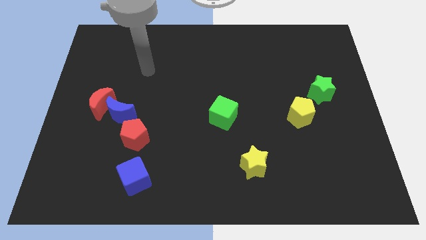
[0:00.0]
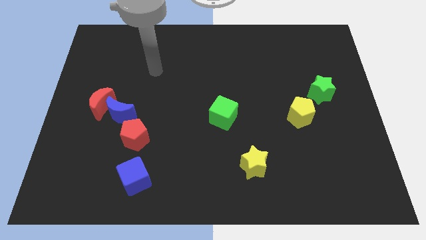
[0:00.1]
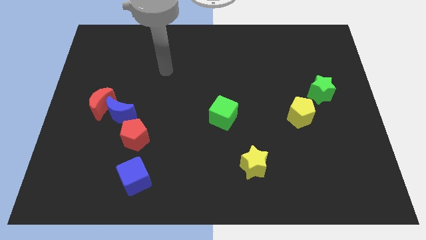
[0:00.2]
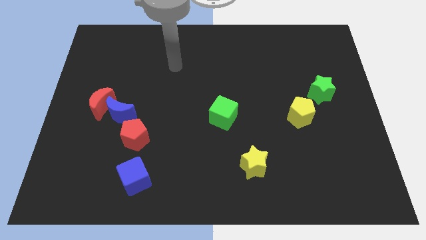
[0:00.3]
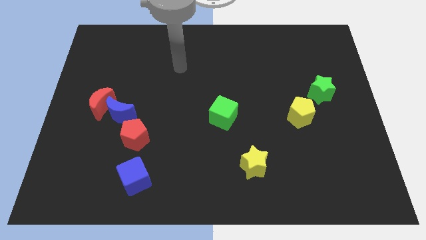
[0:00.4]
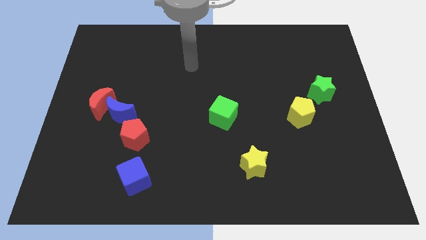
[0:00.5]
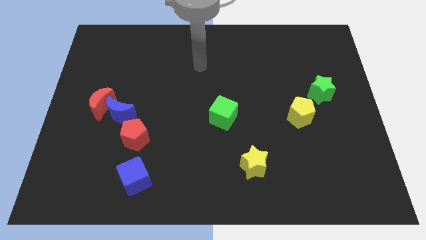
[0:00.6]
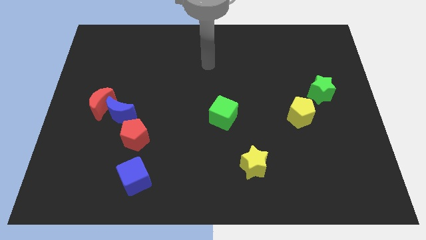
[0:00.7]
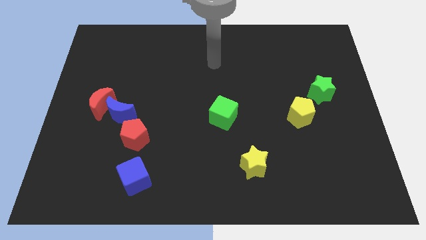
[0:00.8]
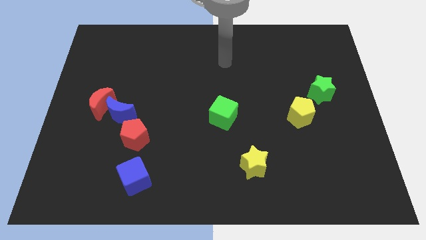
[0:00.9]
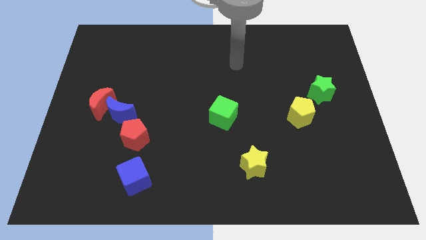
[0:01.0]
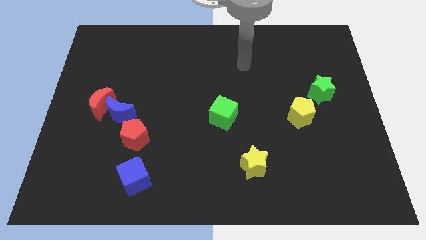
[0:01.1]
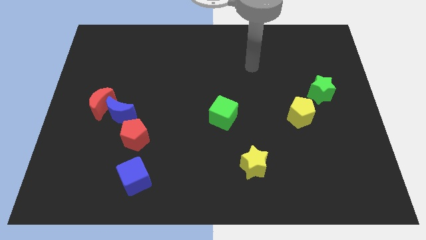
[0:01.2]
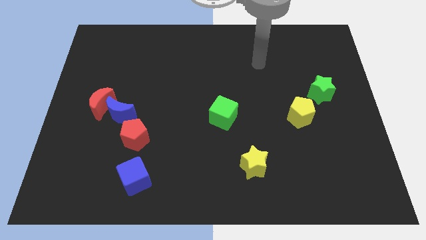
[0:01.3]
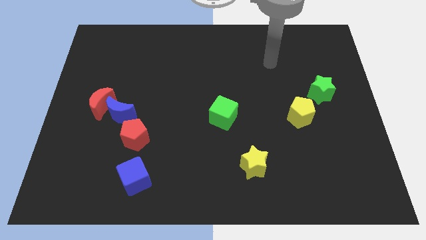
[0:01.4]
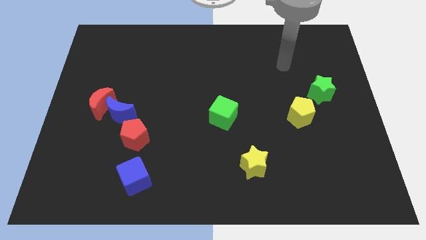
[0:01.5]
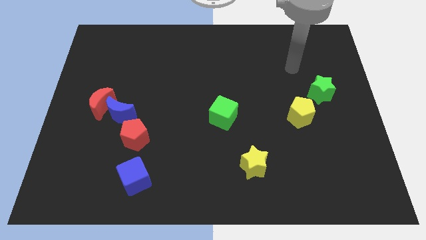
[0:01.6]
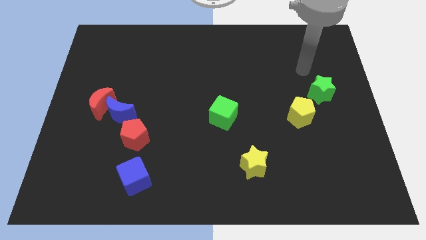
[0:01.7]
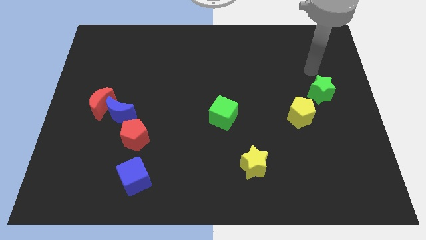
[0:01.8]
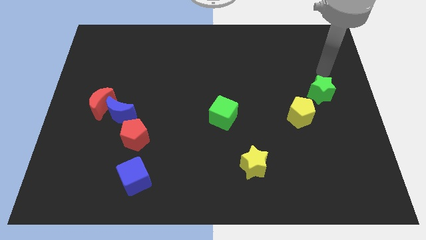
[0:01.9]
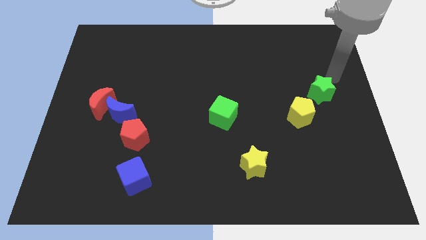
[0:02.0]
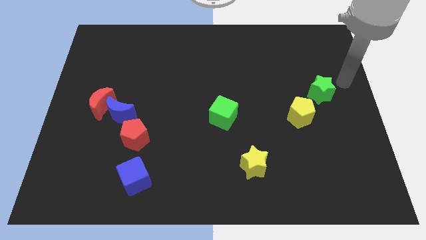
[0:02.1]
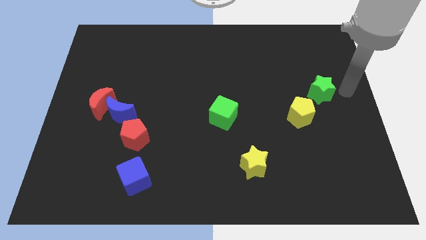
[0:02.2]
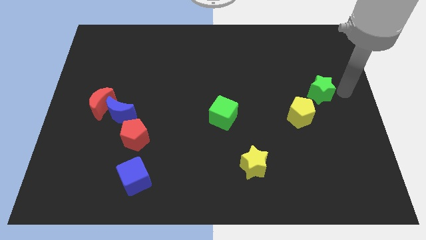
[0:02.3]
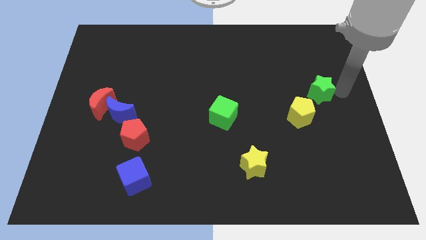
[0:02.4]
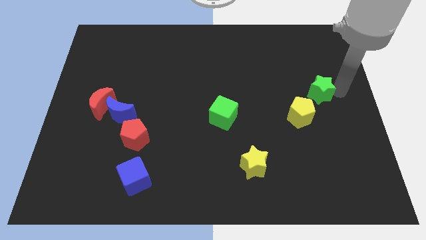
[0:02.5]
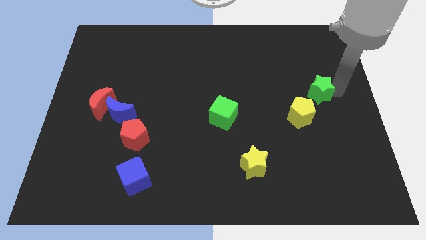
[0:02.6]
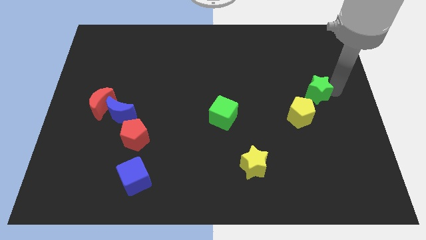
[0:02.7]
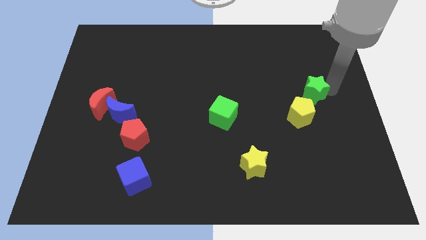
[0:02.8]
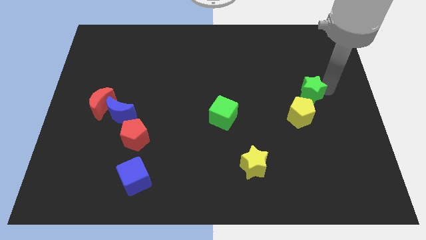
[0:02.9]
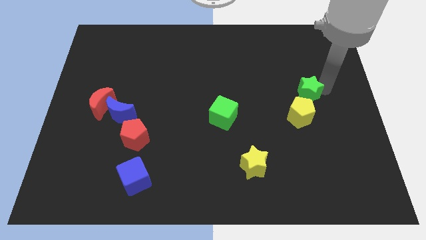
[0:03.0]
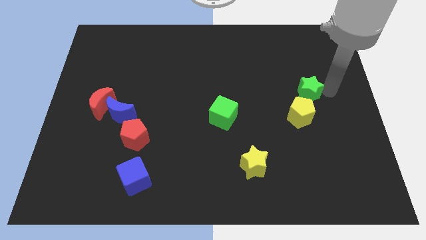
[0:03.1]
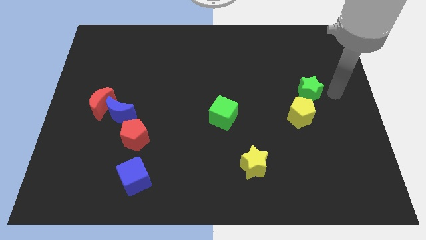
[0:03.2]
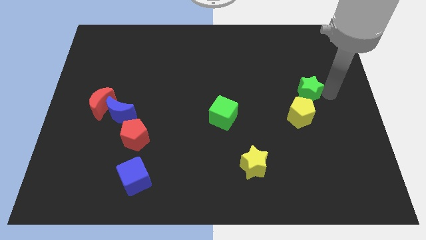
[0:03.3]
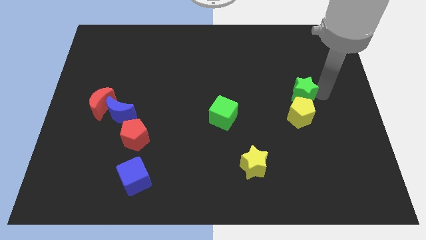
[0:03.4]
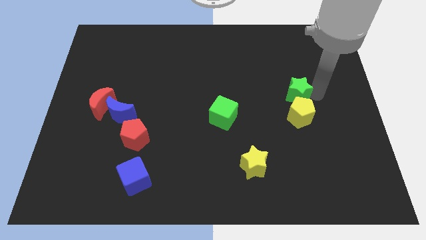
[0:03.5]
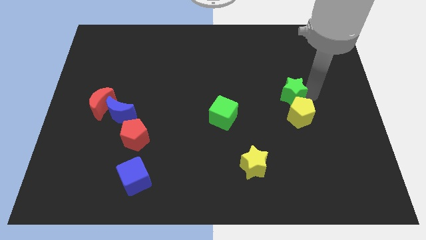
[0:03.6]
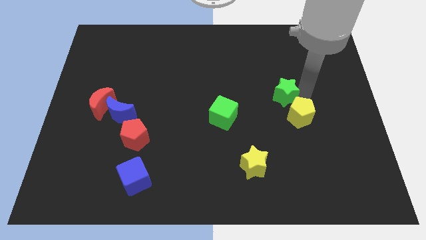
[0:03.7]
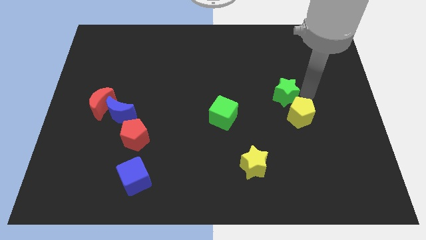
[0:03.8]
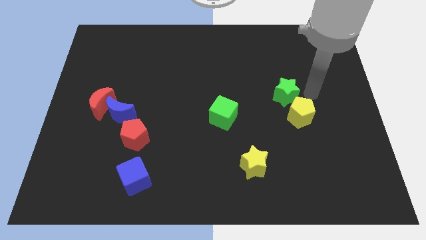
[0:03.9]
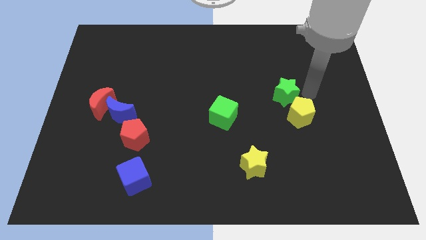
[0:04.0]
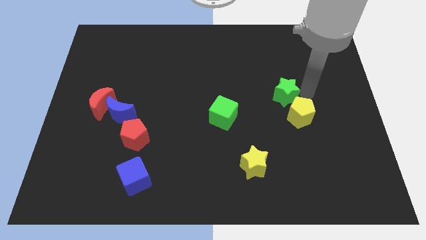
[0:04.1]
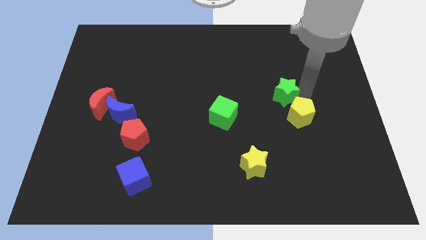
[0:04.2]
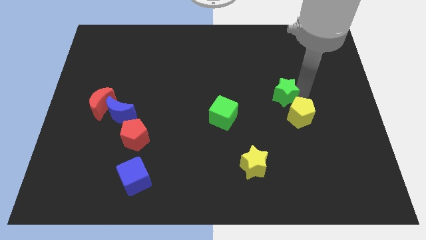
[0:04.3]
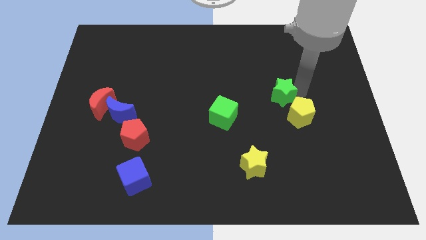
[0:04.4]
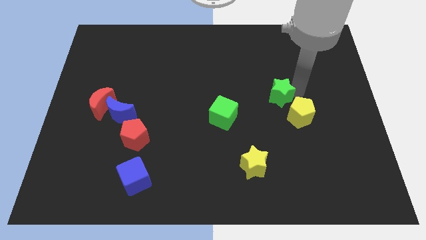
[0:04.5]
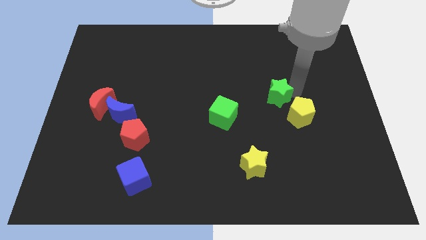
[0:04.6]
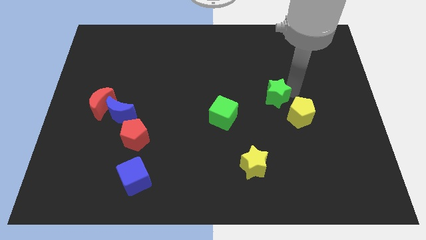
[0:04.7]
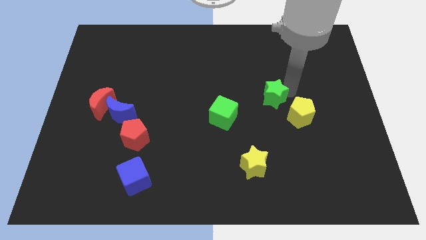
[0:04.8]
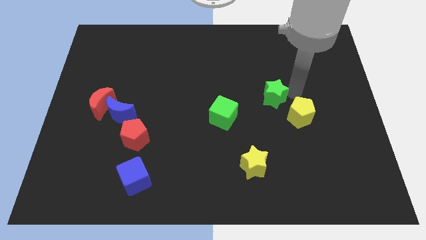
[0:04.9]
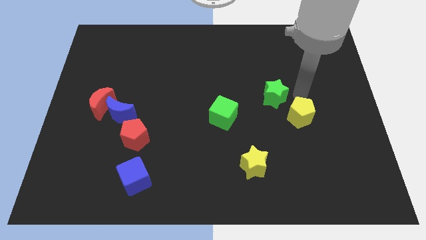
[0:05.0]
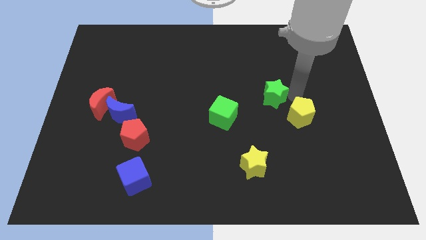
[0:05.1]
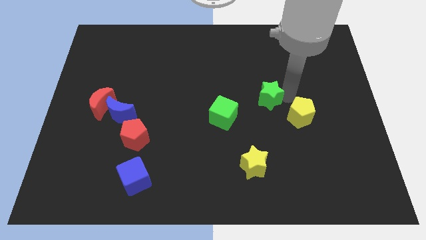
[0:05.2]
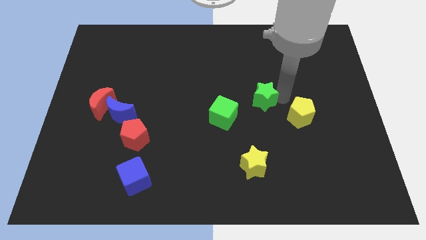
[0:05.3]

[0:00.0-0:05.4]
move the green star to the center of the board

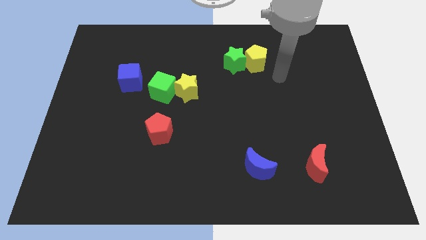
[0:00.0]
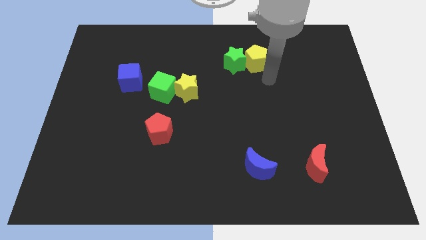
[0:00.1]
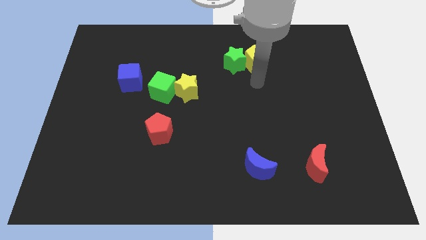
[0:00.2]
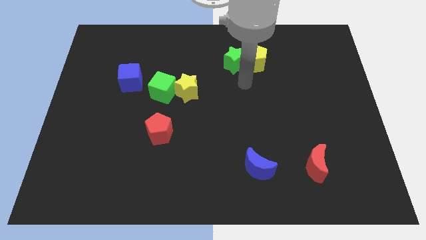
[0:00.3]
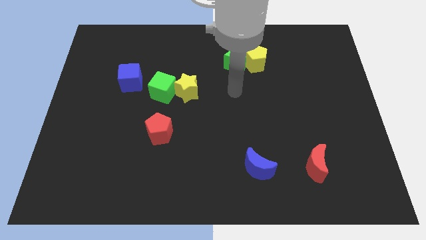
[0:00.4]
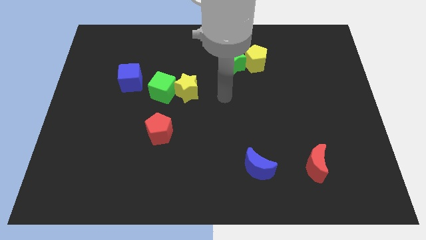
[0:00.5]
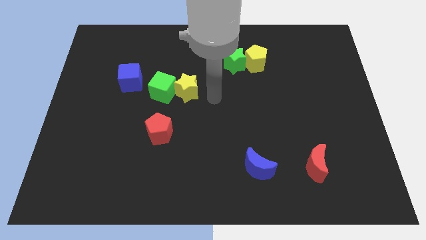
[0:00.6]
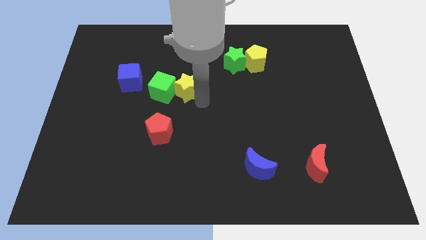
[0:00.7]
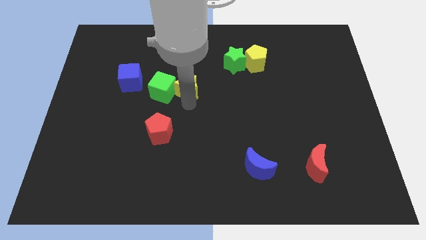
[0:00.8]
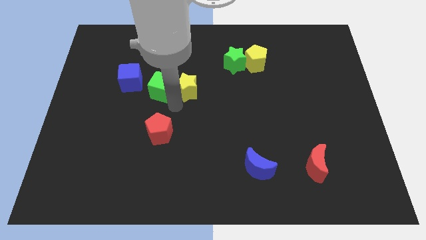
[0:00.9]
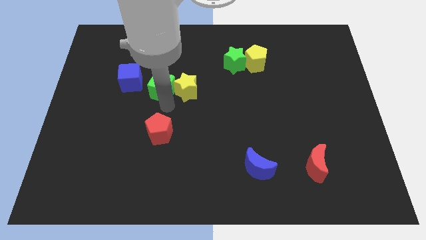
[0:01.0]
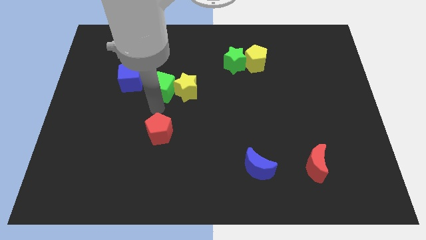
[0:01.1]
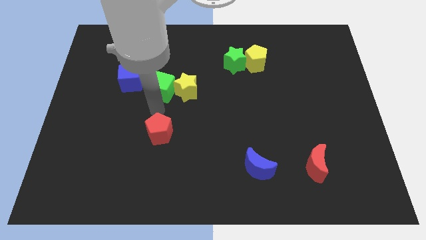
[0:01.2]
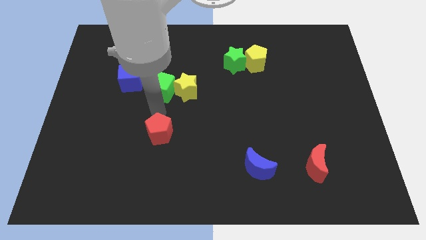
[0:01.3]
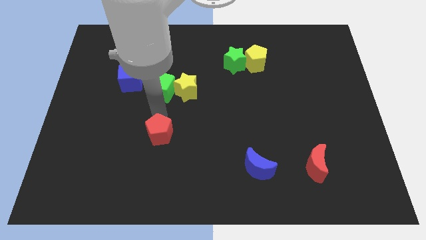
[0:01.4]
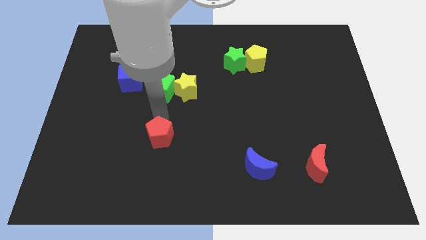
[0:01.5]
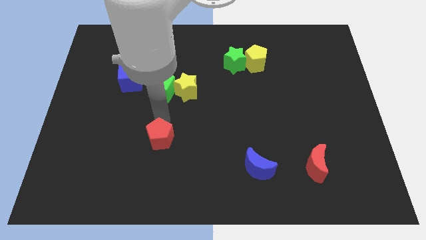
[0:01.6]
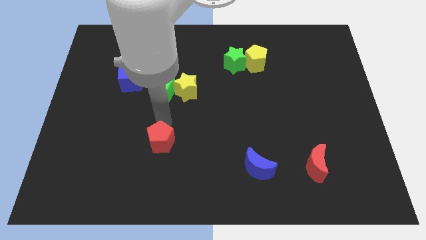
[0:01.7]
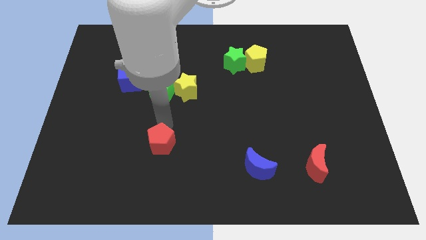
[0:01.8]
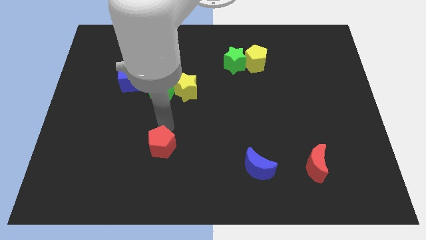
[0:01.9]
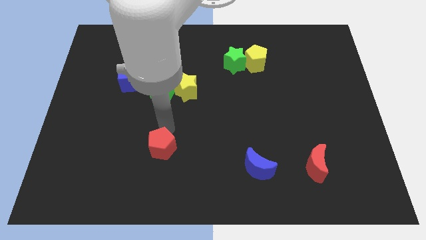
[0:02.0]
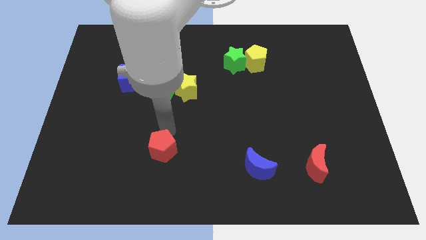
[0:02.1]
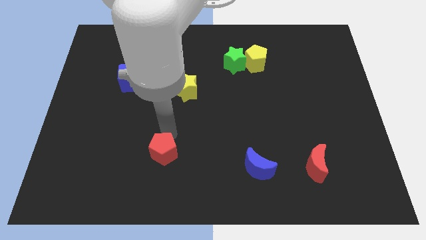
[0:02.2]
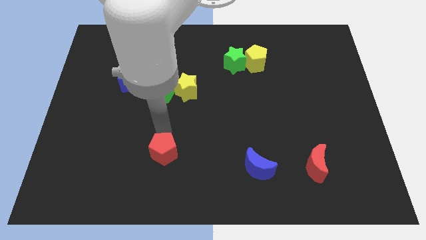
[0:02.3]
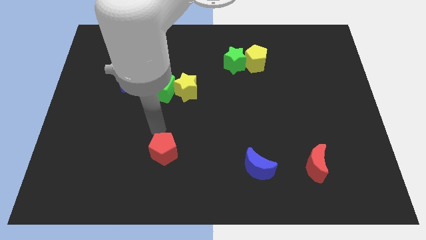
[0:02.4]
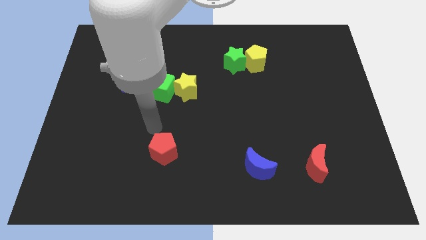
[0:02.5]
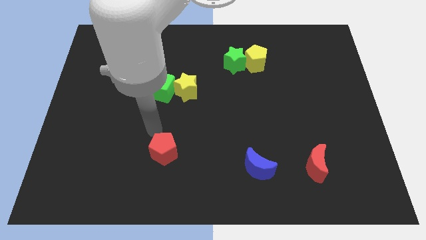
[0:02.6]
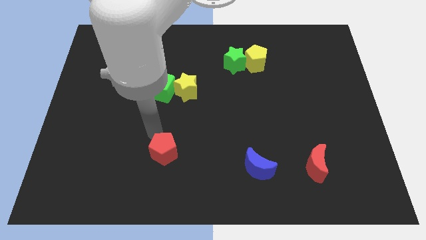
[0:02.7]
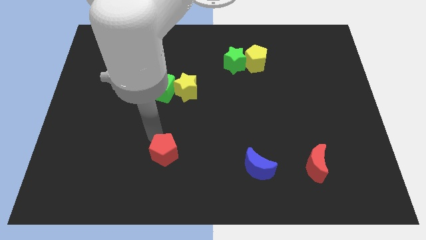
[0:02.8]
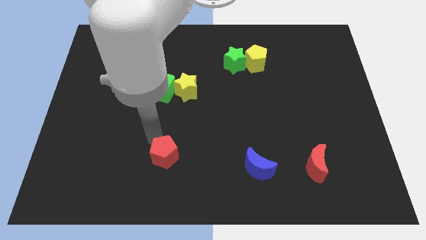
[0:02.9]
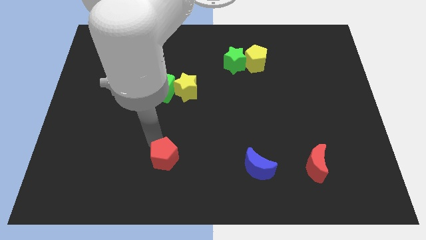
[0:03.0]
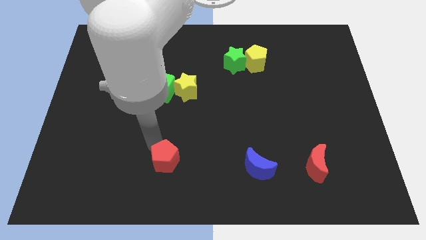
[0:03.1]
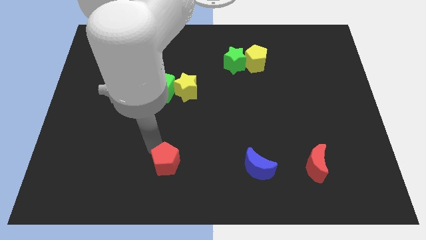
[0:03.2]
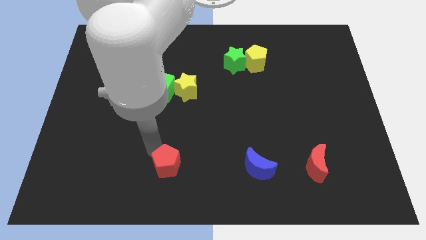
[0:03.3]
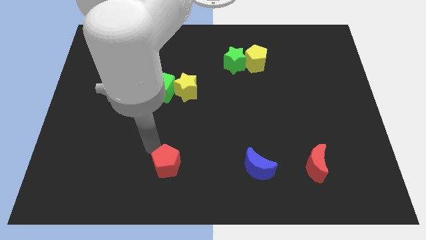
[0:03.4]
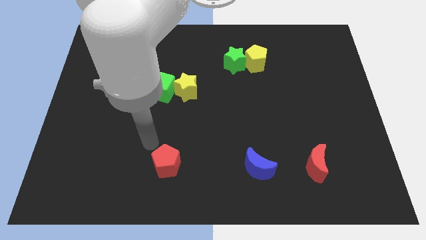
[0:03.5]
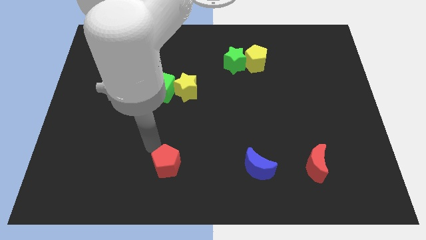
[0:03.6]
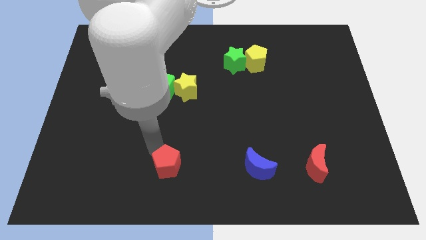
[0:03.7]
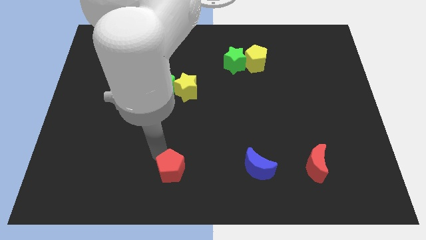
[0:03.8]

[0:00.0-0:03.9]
move the red pentagon to the bottom
